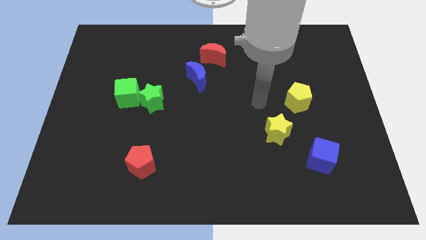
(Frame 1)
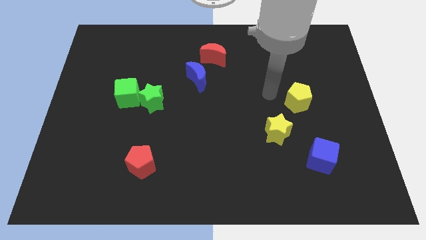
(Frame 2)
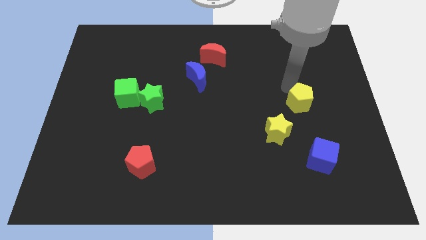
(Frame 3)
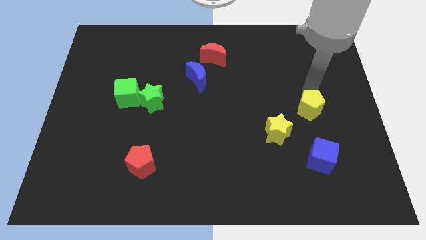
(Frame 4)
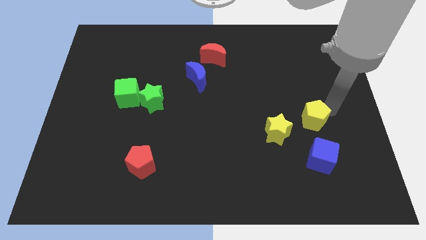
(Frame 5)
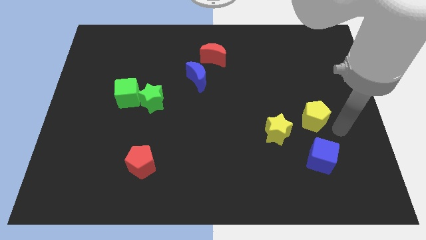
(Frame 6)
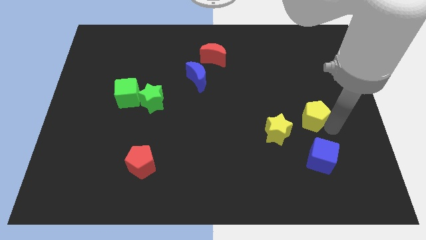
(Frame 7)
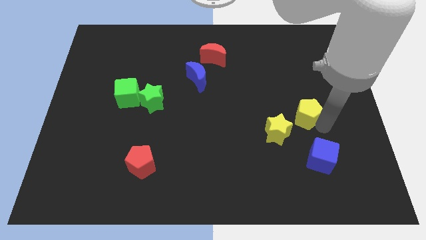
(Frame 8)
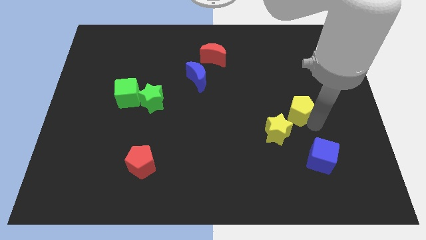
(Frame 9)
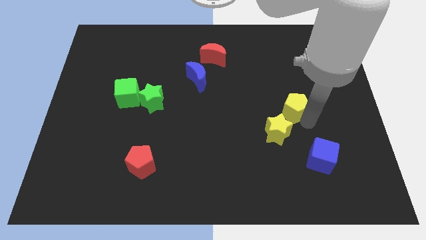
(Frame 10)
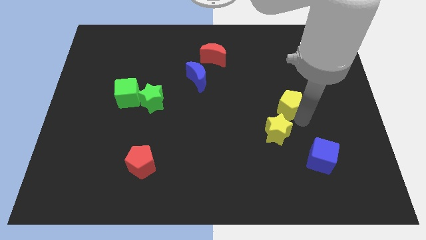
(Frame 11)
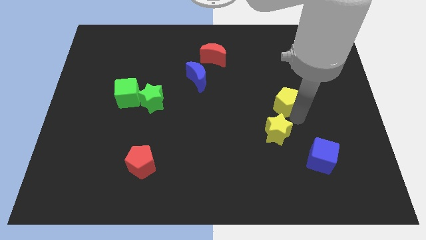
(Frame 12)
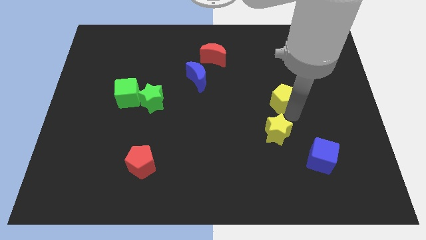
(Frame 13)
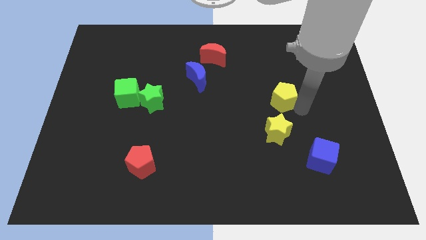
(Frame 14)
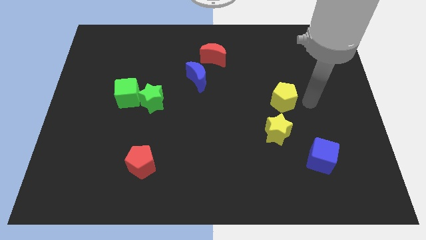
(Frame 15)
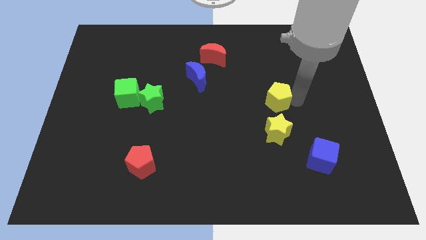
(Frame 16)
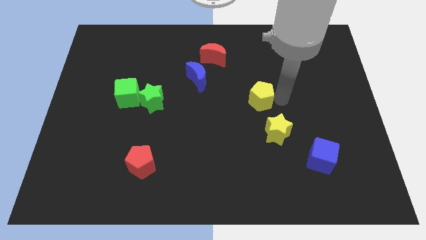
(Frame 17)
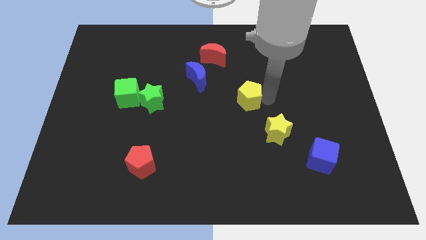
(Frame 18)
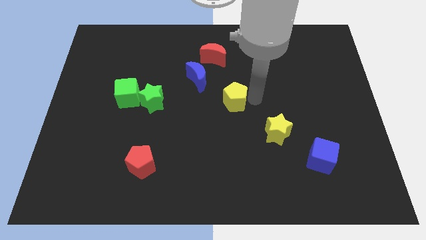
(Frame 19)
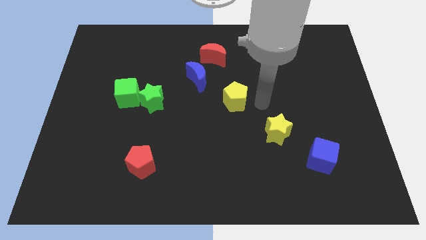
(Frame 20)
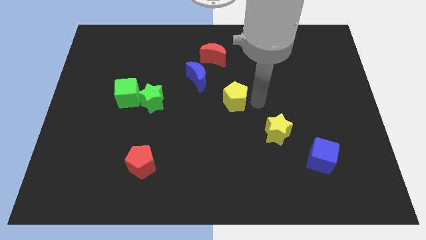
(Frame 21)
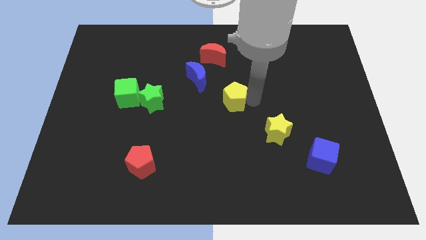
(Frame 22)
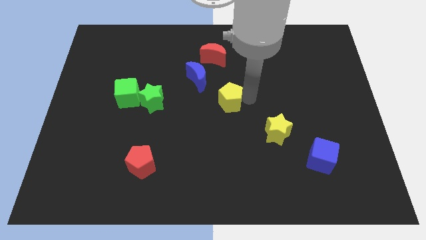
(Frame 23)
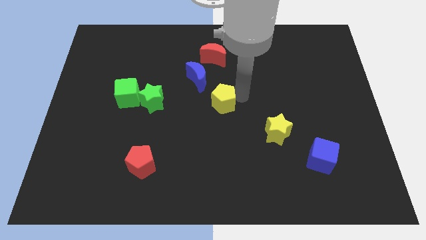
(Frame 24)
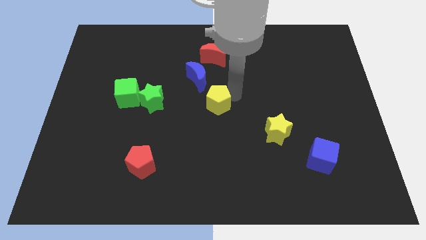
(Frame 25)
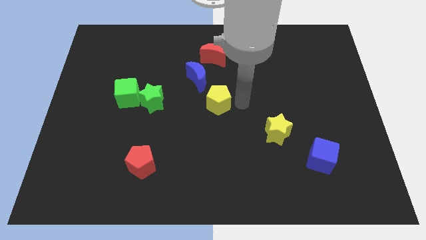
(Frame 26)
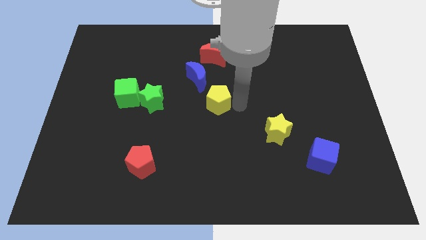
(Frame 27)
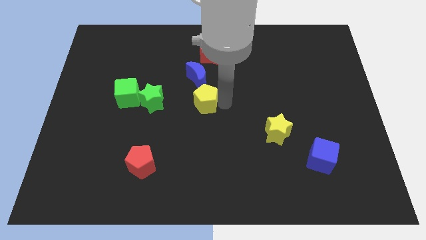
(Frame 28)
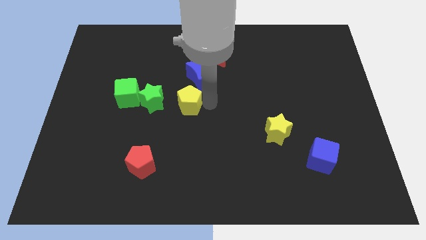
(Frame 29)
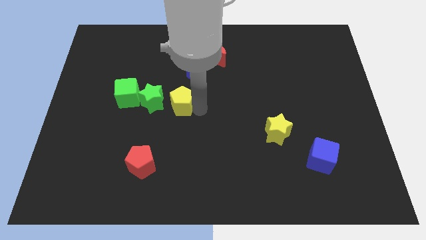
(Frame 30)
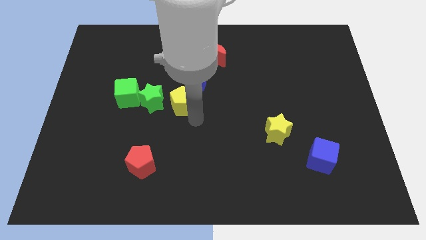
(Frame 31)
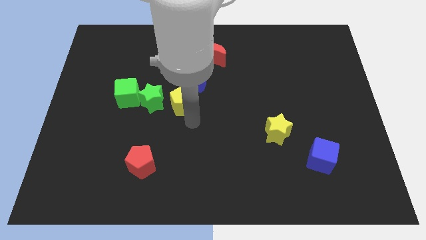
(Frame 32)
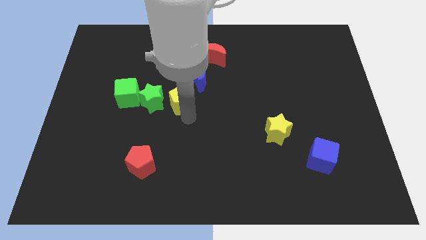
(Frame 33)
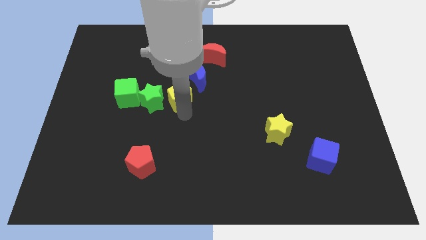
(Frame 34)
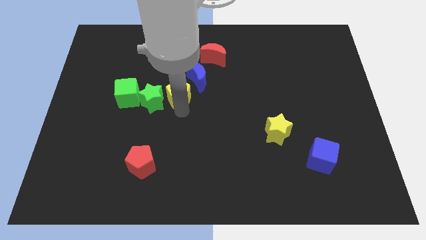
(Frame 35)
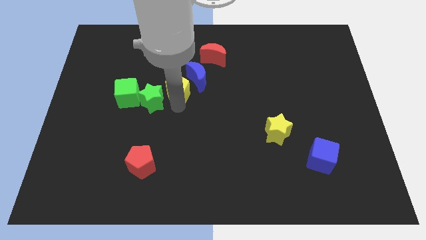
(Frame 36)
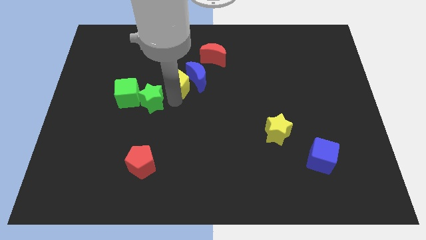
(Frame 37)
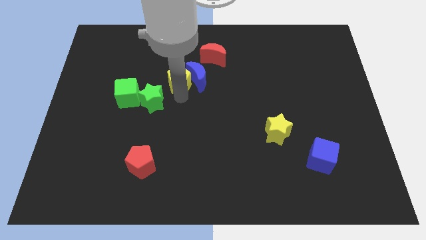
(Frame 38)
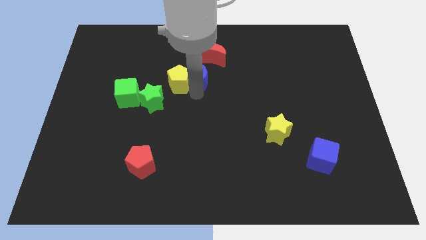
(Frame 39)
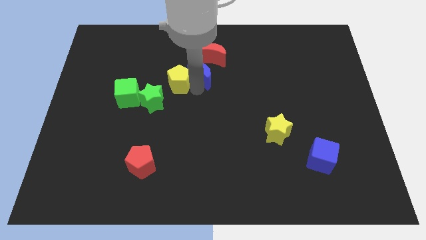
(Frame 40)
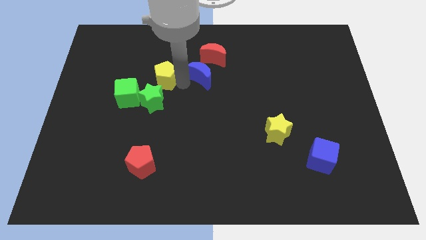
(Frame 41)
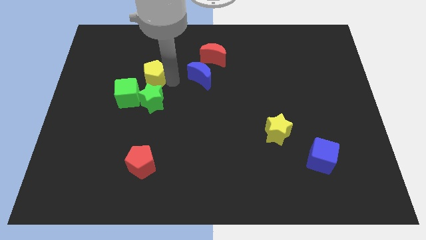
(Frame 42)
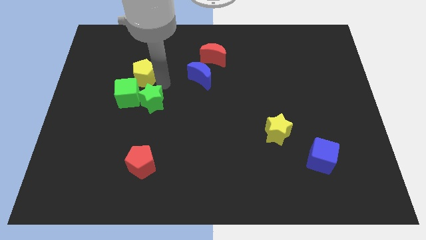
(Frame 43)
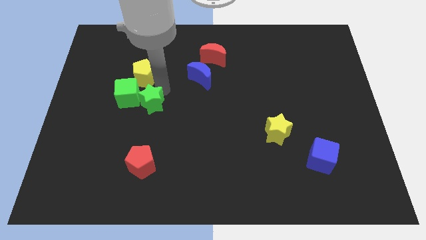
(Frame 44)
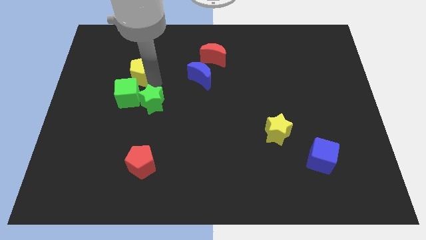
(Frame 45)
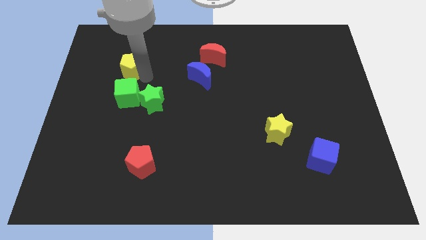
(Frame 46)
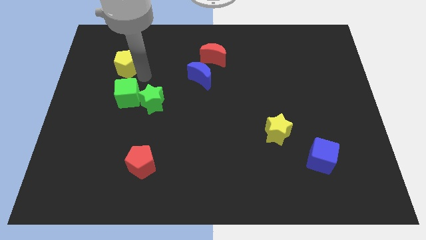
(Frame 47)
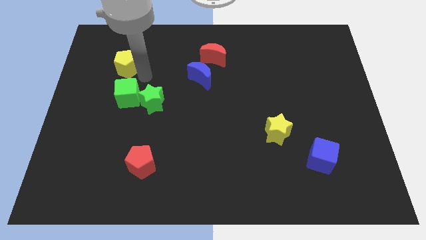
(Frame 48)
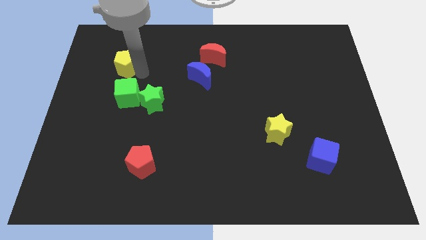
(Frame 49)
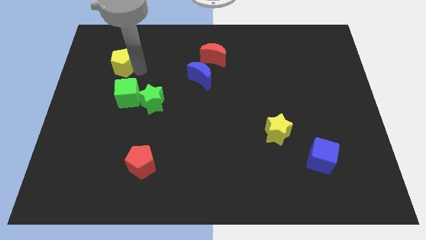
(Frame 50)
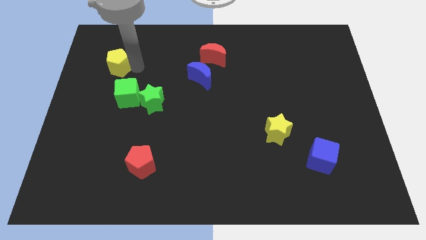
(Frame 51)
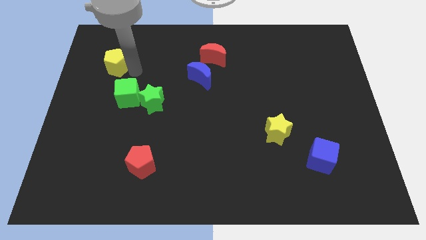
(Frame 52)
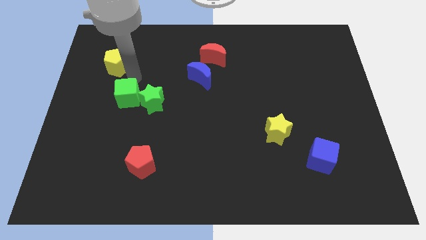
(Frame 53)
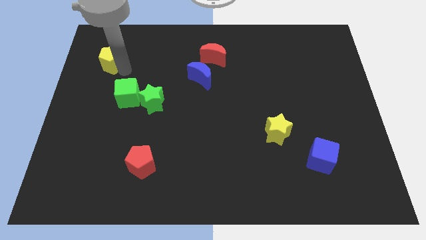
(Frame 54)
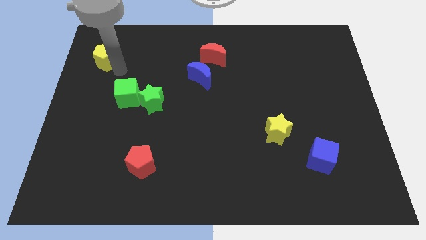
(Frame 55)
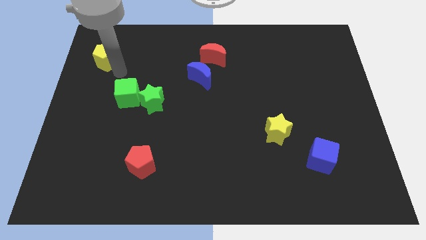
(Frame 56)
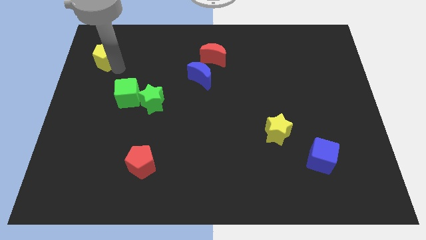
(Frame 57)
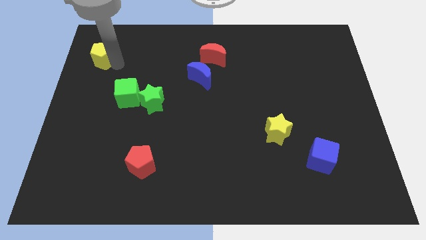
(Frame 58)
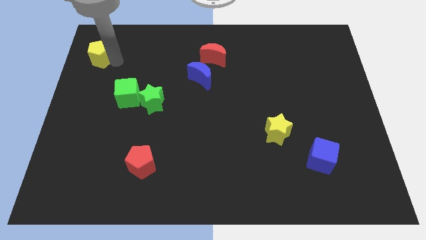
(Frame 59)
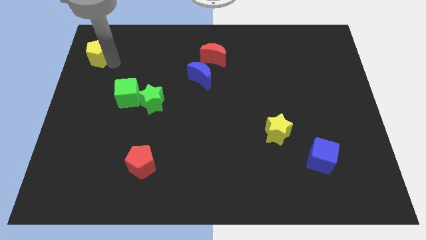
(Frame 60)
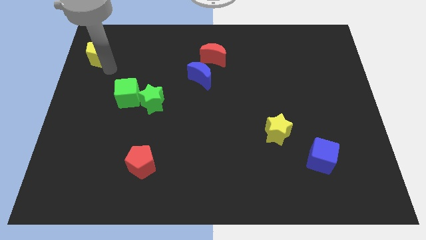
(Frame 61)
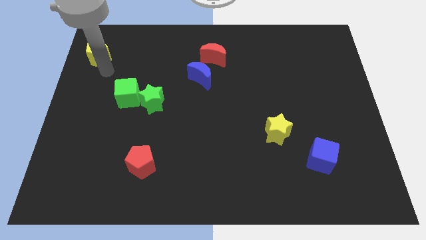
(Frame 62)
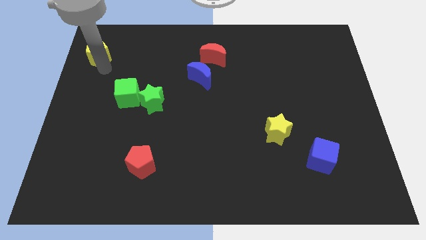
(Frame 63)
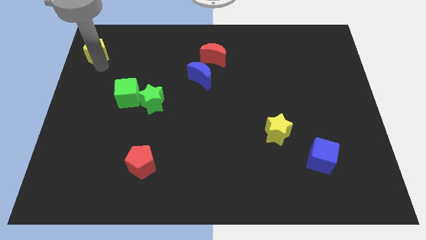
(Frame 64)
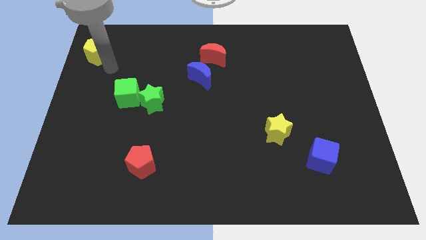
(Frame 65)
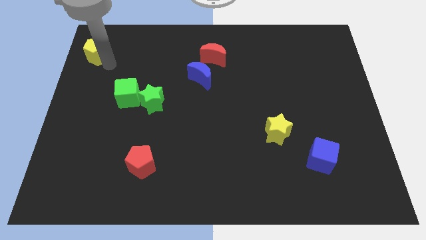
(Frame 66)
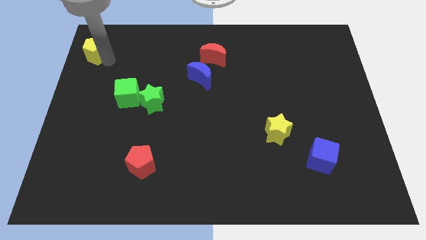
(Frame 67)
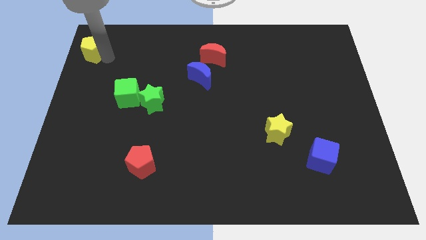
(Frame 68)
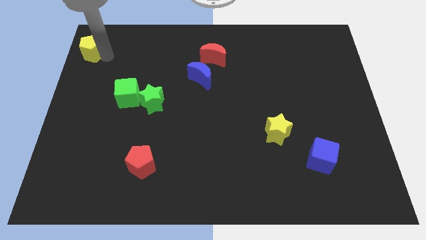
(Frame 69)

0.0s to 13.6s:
put the yellow pentagon to the top left corner

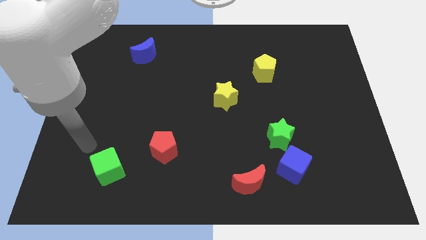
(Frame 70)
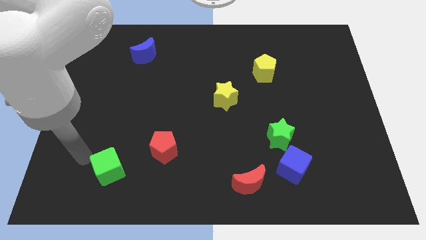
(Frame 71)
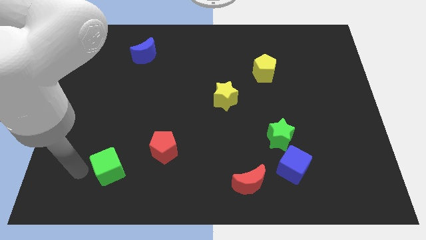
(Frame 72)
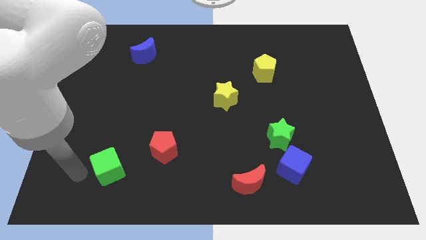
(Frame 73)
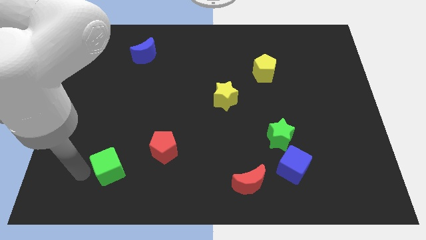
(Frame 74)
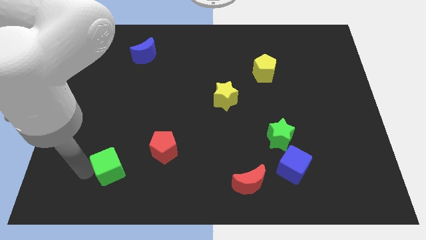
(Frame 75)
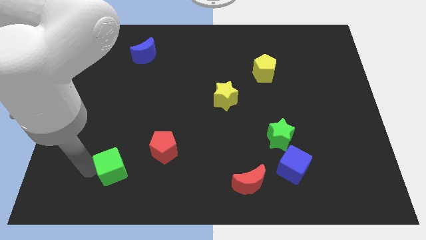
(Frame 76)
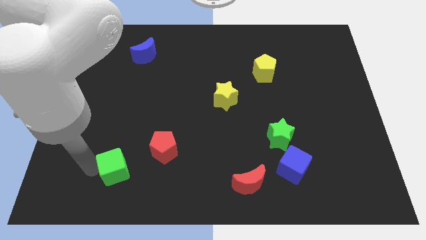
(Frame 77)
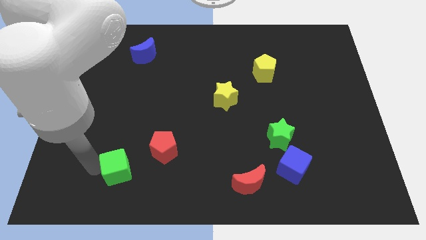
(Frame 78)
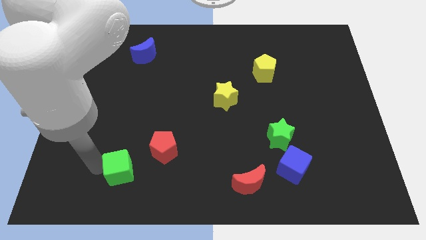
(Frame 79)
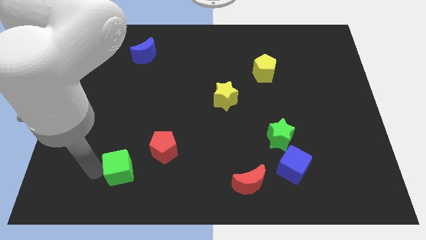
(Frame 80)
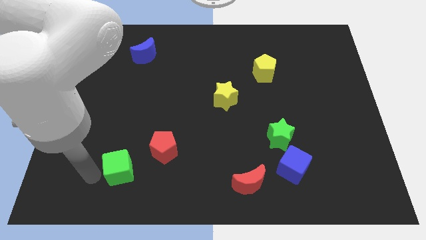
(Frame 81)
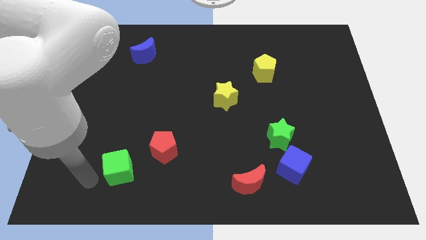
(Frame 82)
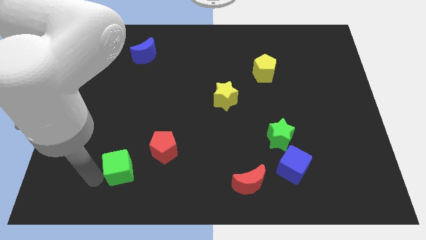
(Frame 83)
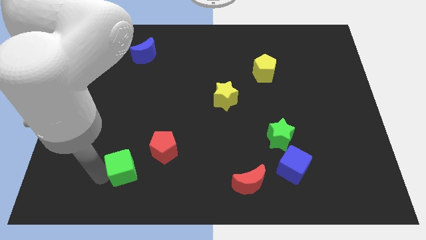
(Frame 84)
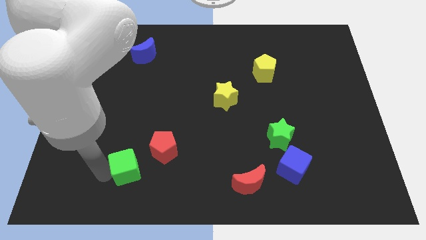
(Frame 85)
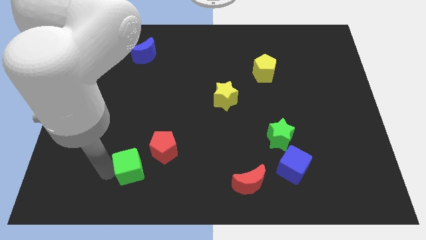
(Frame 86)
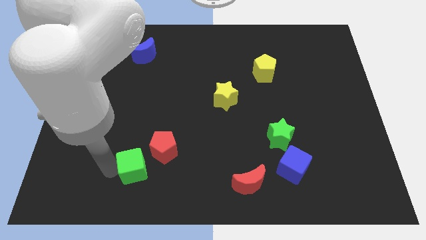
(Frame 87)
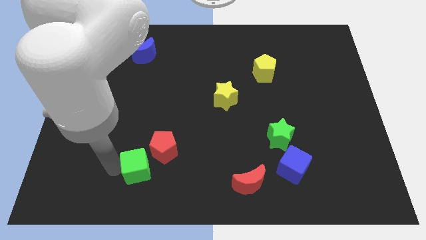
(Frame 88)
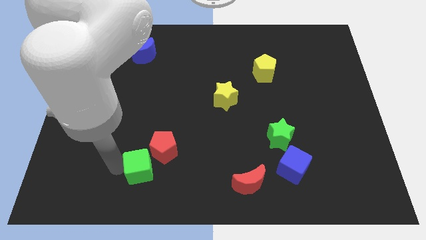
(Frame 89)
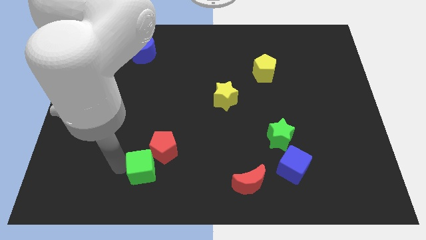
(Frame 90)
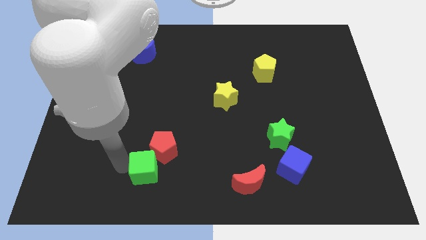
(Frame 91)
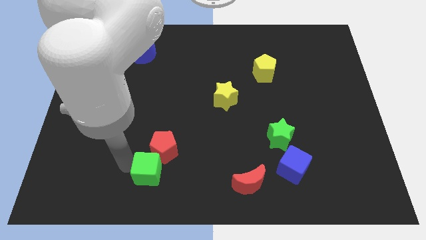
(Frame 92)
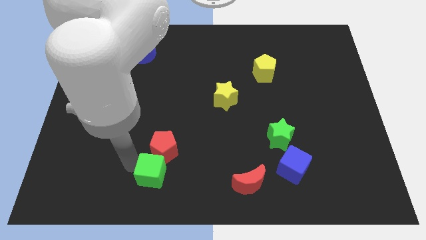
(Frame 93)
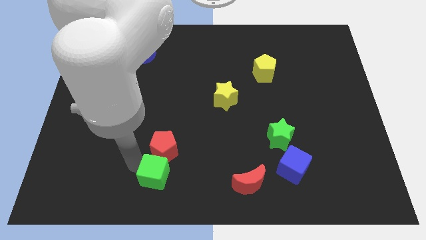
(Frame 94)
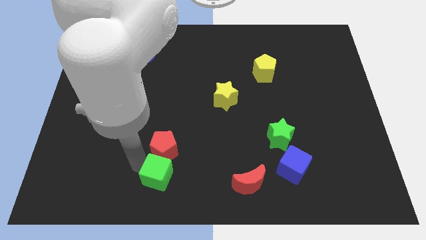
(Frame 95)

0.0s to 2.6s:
push the green cube to the bottom side
